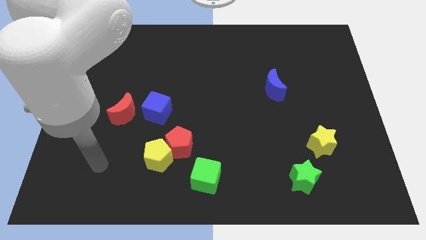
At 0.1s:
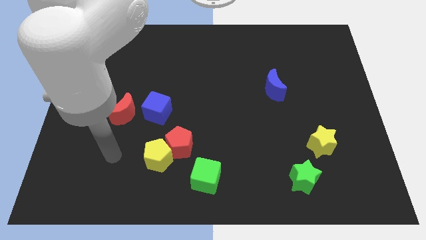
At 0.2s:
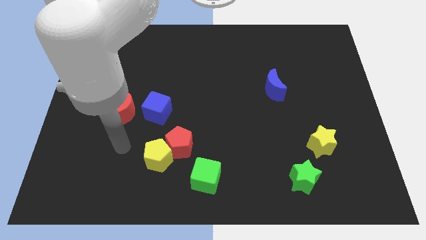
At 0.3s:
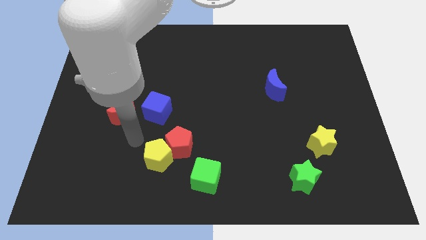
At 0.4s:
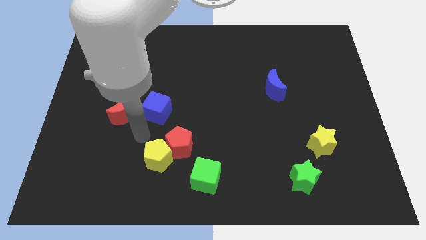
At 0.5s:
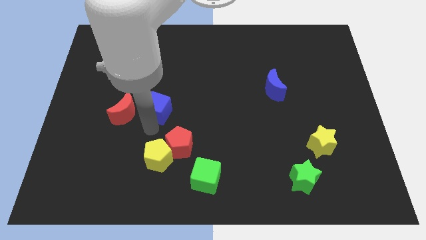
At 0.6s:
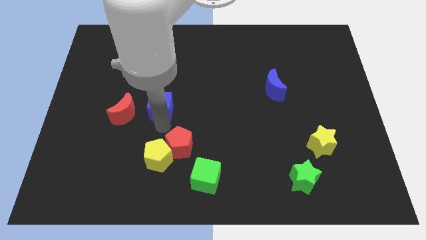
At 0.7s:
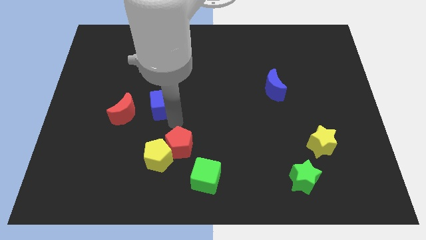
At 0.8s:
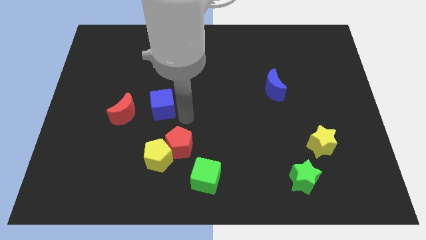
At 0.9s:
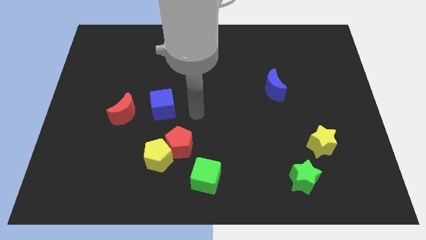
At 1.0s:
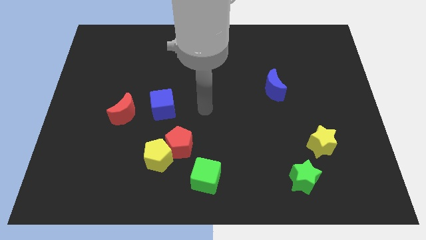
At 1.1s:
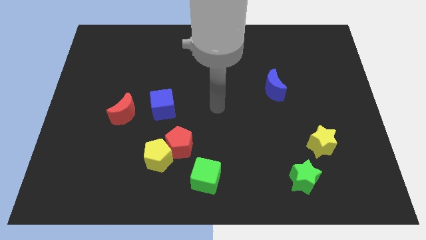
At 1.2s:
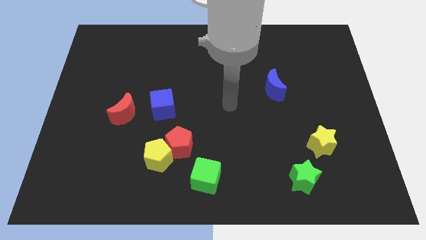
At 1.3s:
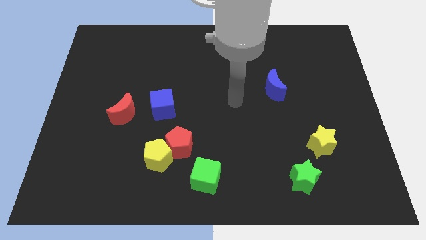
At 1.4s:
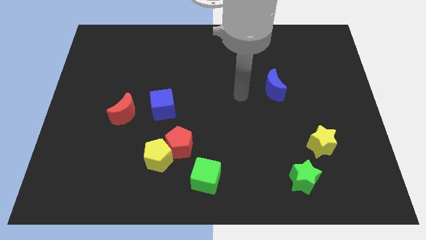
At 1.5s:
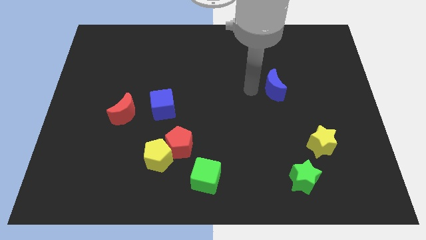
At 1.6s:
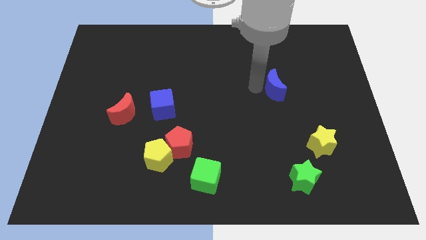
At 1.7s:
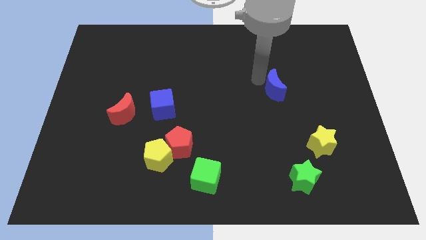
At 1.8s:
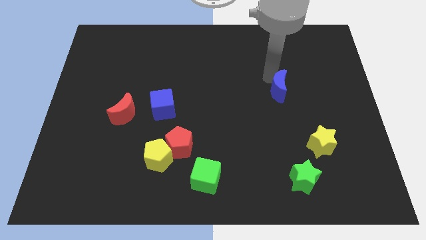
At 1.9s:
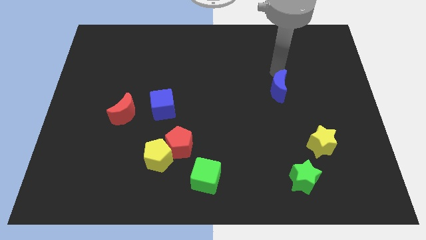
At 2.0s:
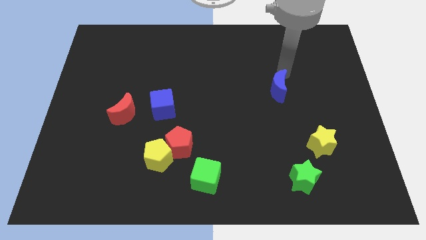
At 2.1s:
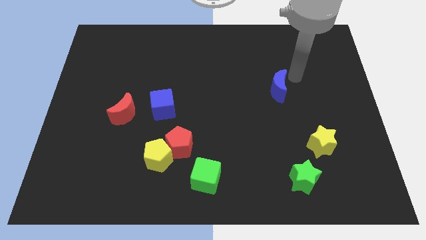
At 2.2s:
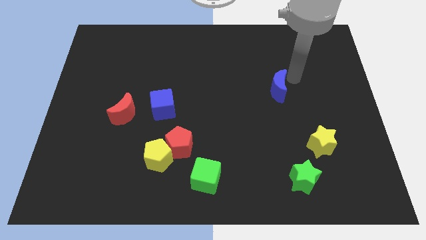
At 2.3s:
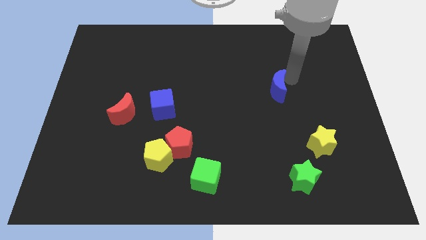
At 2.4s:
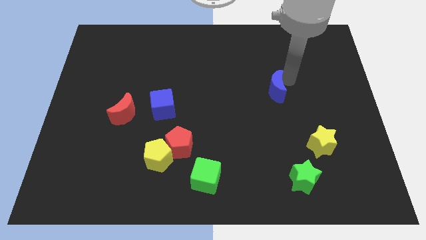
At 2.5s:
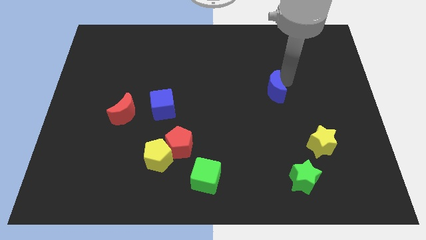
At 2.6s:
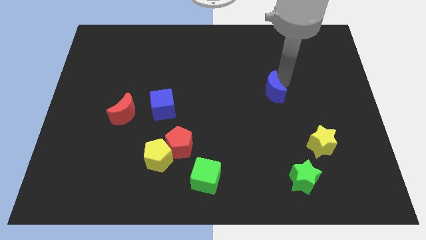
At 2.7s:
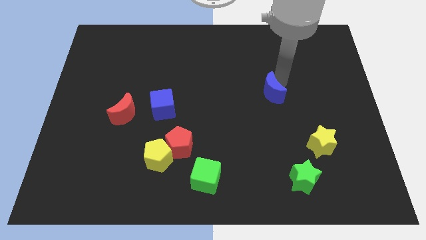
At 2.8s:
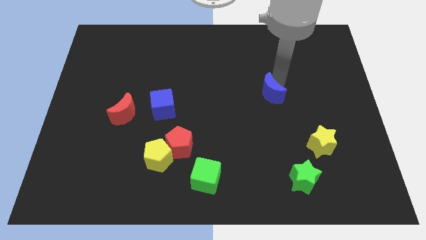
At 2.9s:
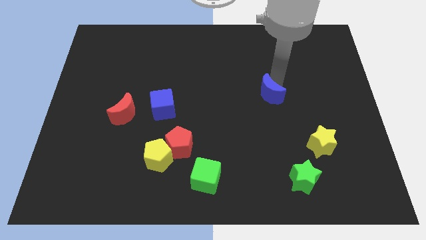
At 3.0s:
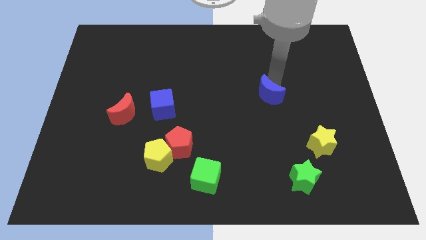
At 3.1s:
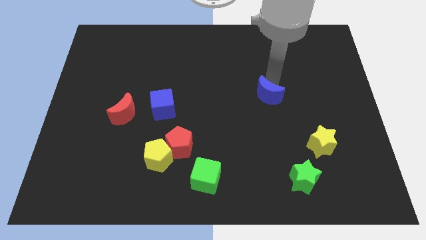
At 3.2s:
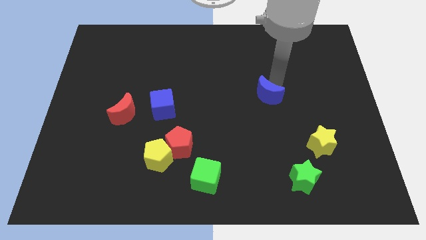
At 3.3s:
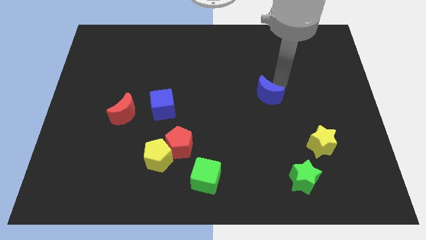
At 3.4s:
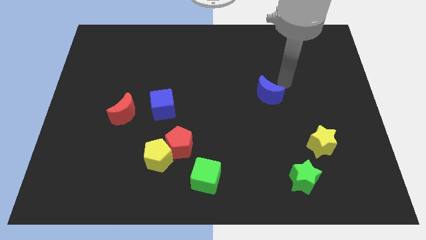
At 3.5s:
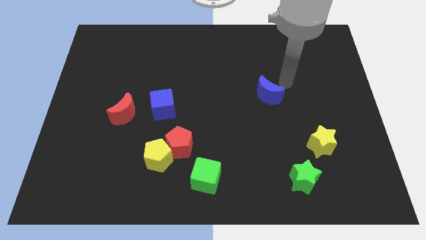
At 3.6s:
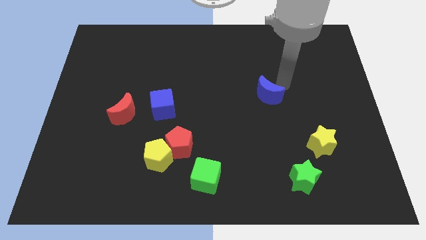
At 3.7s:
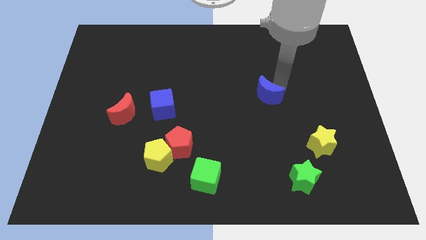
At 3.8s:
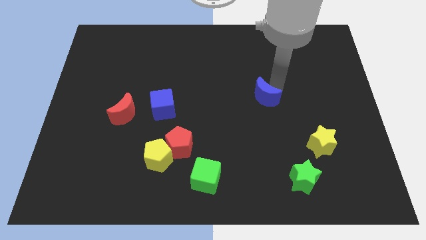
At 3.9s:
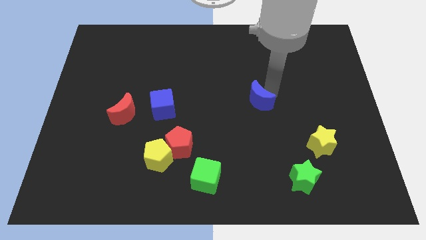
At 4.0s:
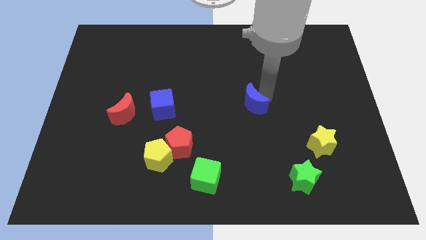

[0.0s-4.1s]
slightly slide the blue moon downwards and left

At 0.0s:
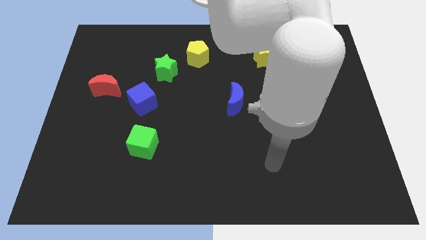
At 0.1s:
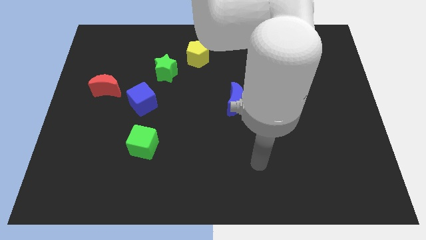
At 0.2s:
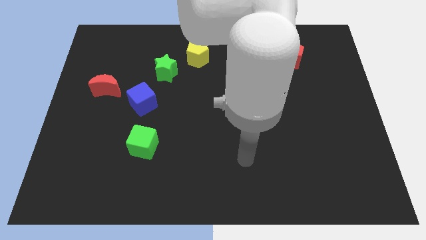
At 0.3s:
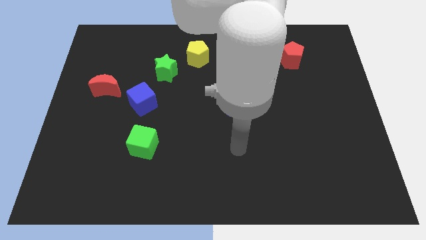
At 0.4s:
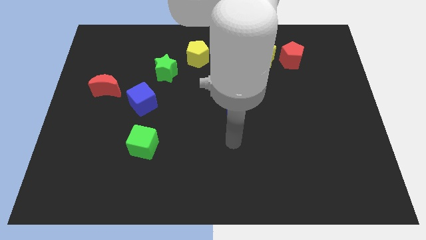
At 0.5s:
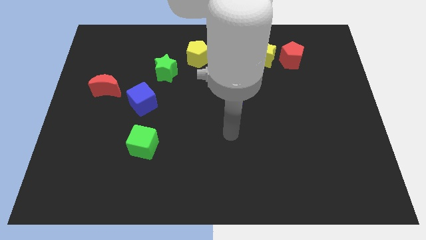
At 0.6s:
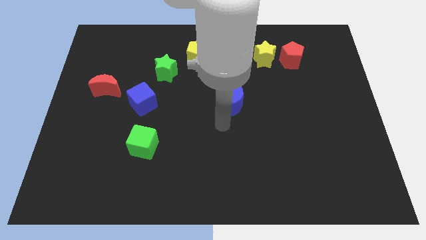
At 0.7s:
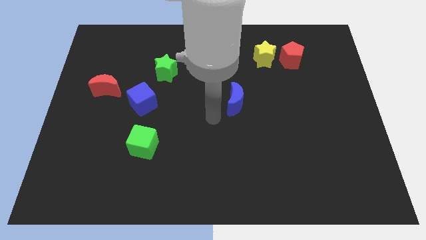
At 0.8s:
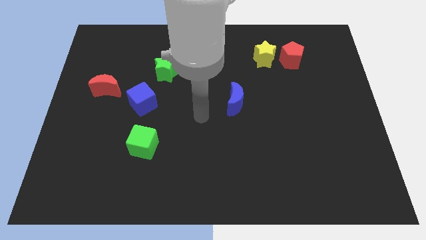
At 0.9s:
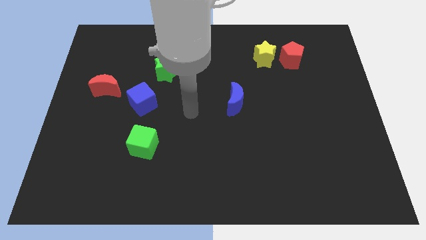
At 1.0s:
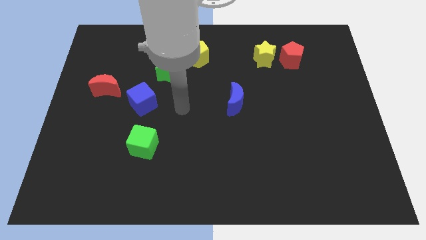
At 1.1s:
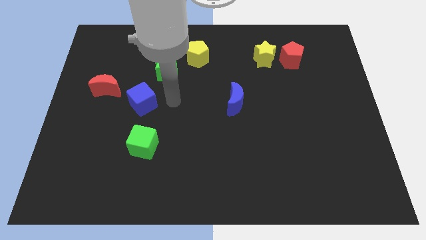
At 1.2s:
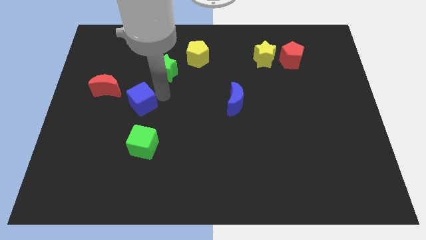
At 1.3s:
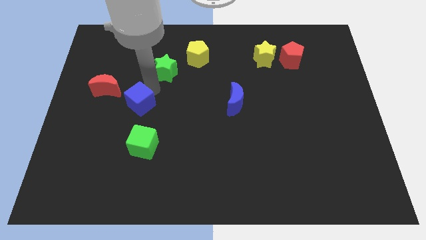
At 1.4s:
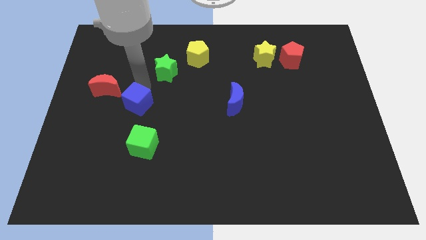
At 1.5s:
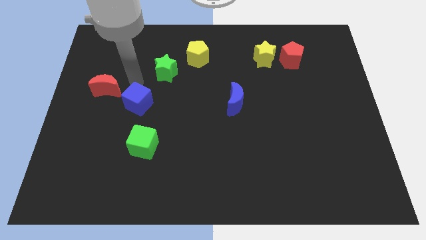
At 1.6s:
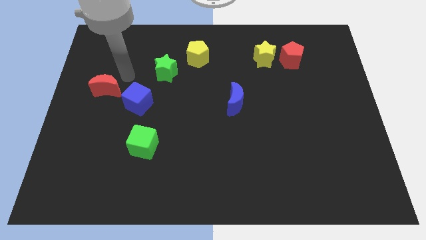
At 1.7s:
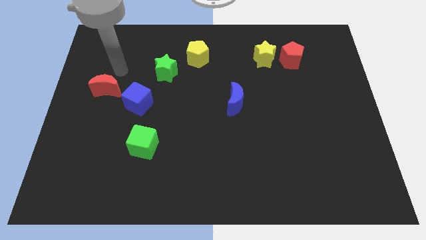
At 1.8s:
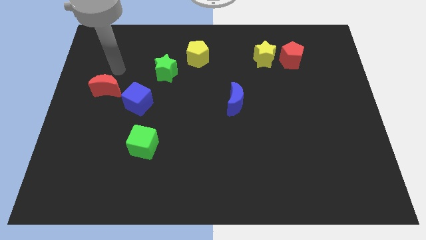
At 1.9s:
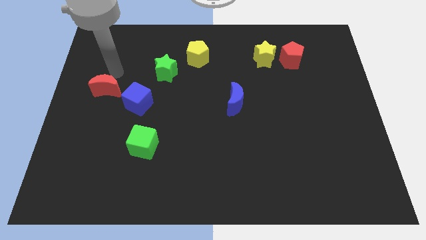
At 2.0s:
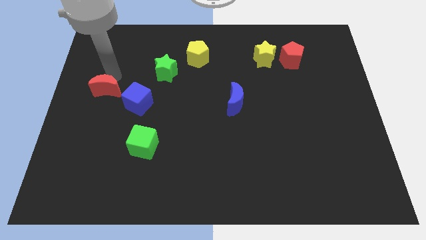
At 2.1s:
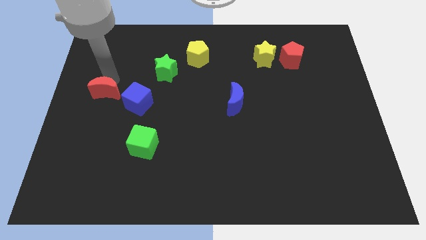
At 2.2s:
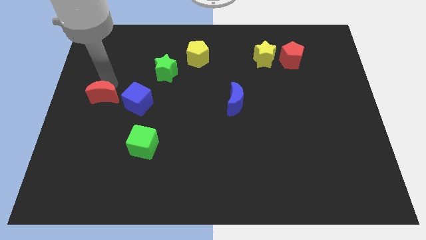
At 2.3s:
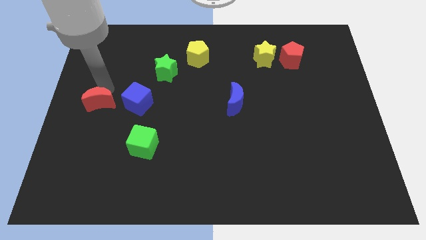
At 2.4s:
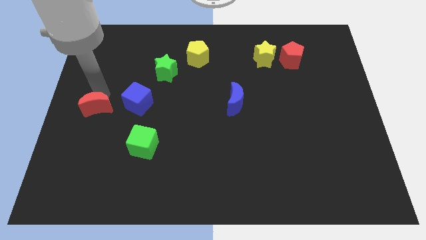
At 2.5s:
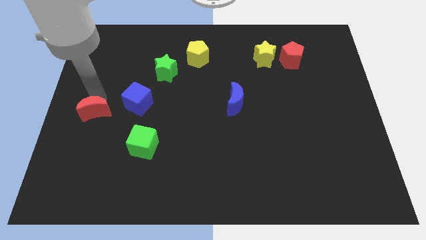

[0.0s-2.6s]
slide the red moon a bit down

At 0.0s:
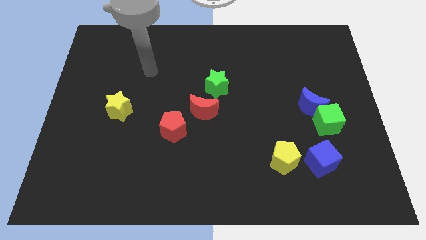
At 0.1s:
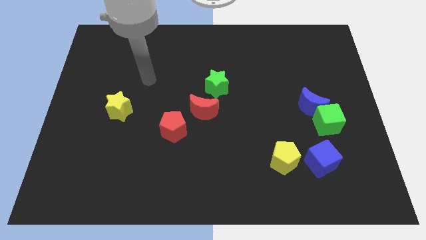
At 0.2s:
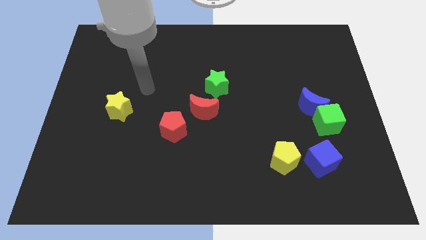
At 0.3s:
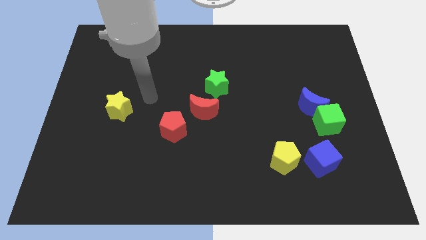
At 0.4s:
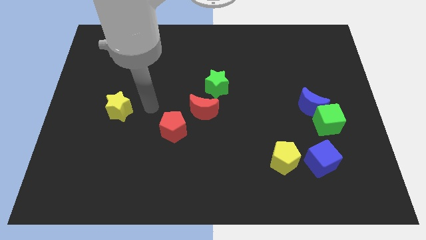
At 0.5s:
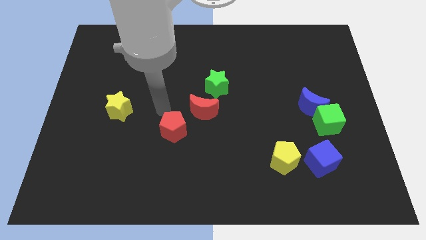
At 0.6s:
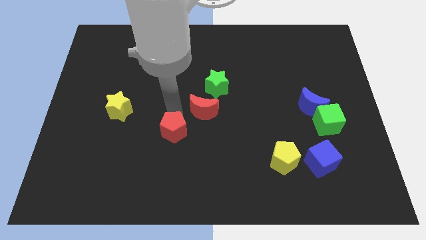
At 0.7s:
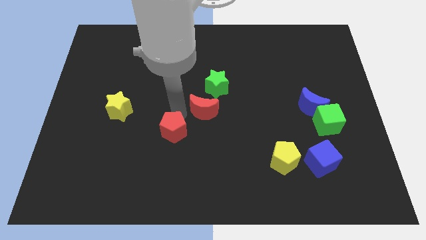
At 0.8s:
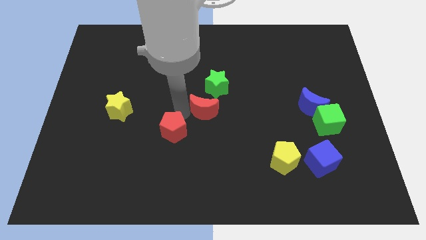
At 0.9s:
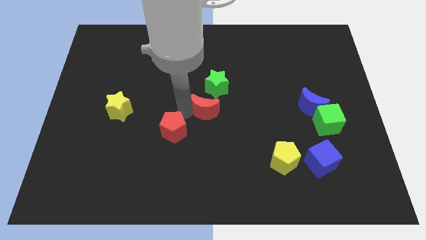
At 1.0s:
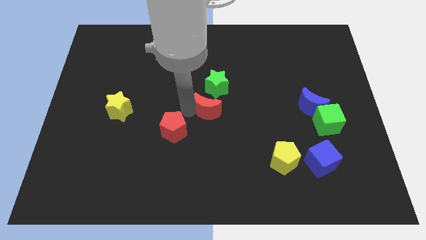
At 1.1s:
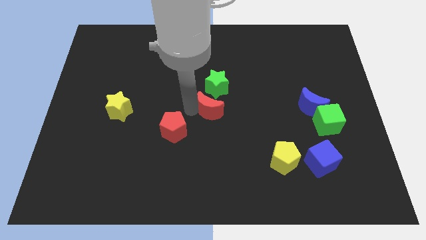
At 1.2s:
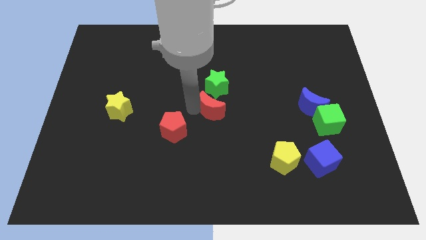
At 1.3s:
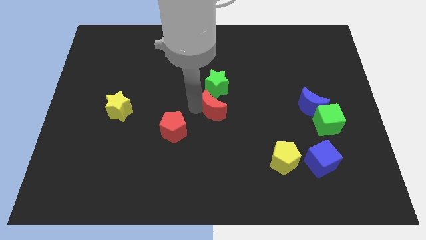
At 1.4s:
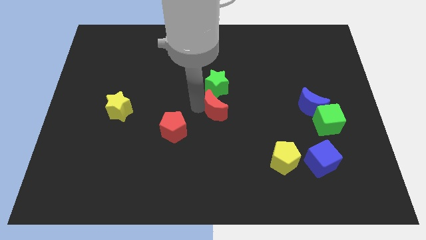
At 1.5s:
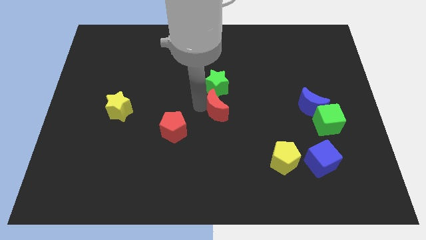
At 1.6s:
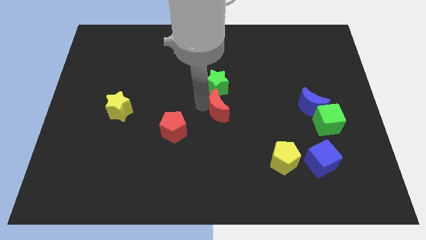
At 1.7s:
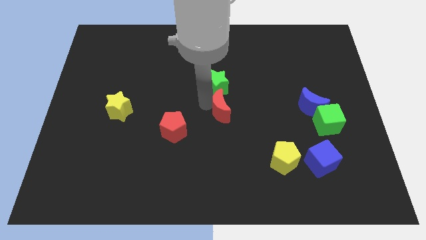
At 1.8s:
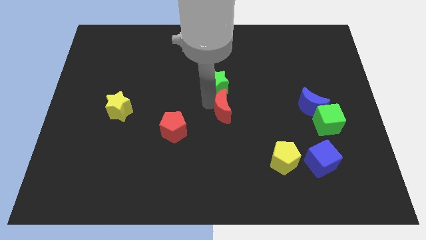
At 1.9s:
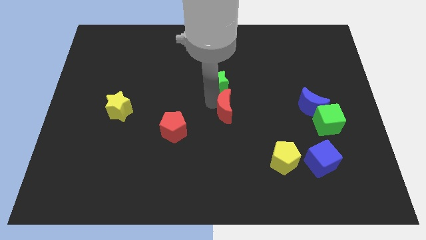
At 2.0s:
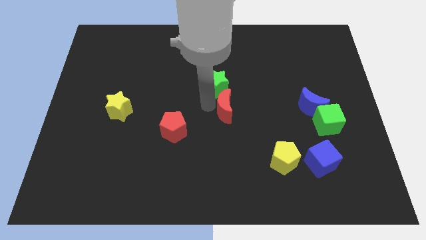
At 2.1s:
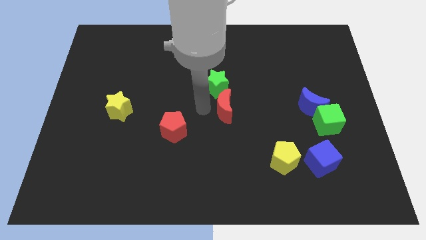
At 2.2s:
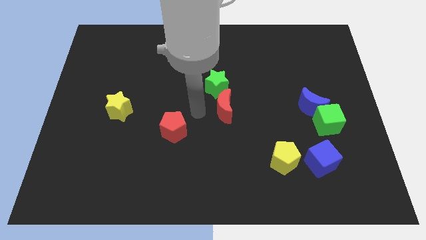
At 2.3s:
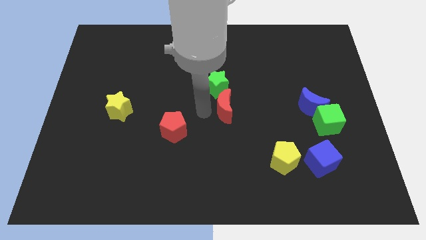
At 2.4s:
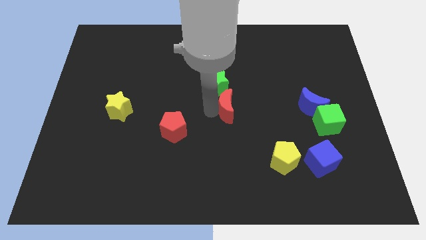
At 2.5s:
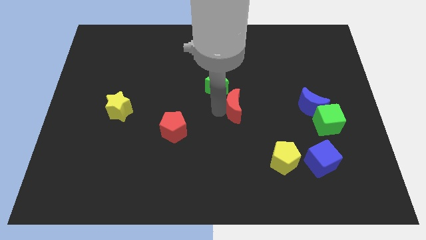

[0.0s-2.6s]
slide the red moon a bit to the right
